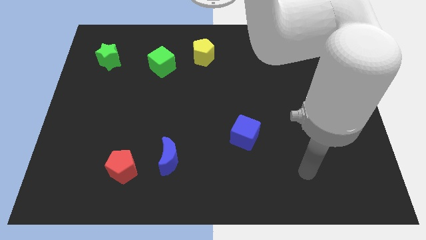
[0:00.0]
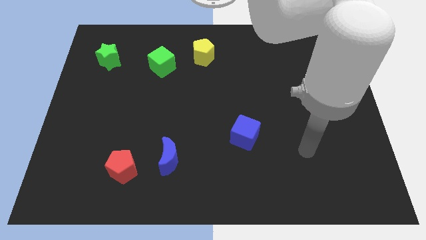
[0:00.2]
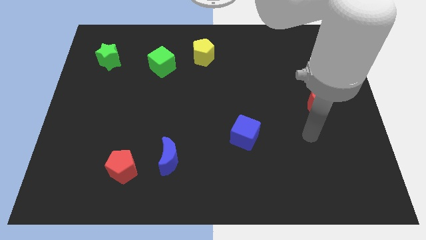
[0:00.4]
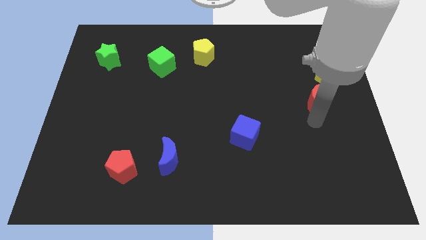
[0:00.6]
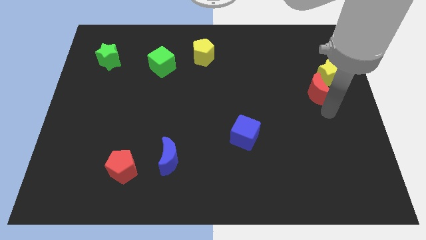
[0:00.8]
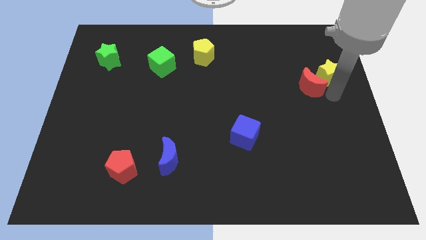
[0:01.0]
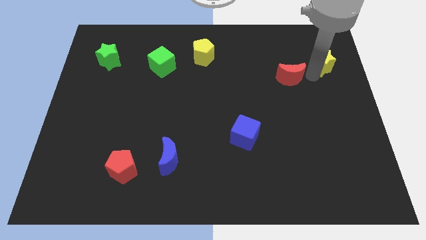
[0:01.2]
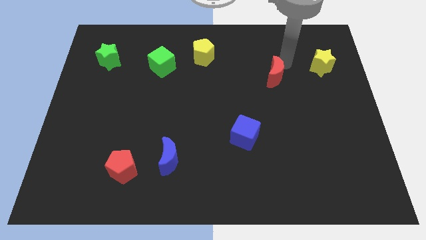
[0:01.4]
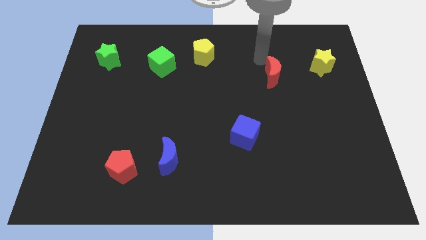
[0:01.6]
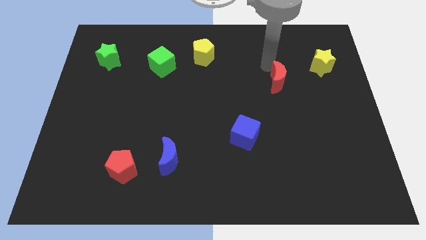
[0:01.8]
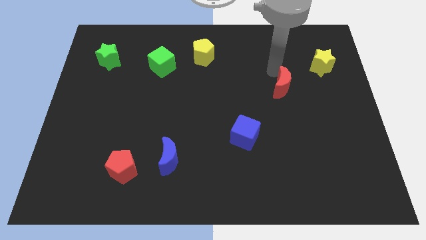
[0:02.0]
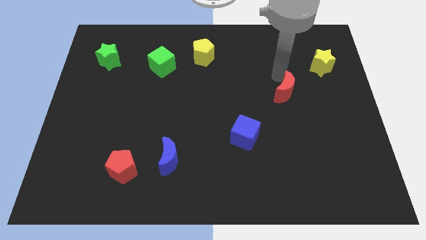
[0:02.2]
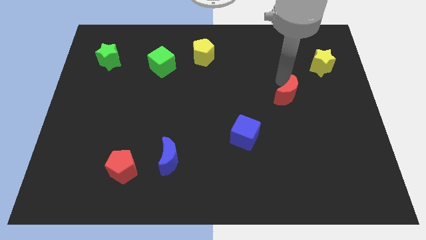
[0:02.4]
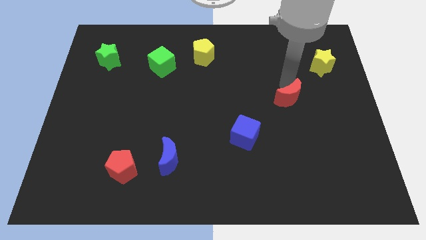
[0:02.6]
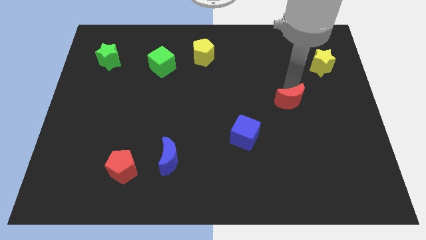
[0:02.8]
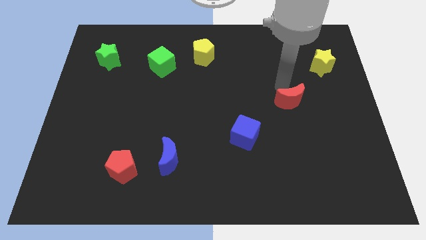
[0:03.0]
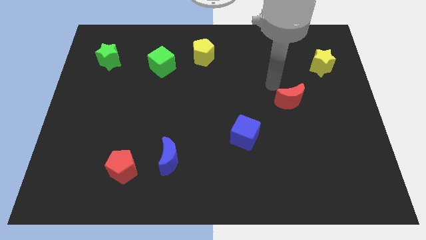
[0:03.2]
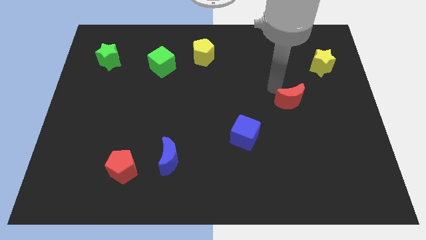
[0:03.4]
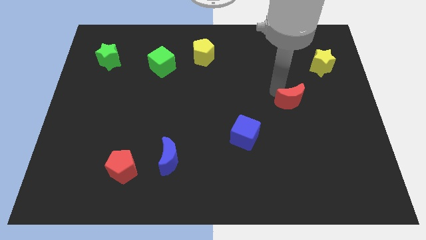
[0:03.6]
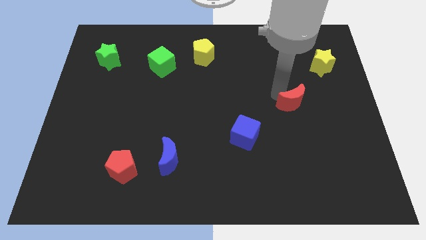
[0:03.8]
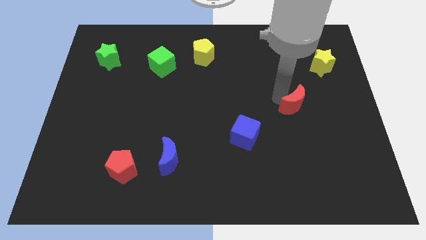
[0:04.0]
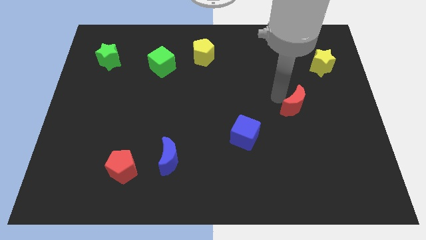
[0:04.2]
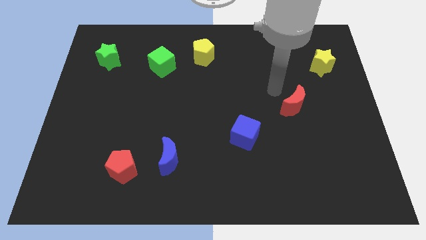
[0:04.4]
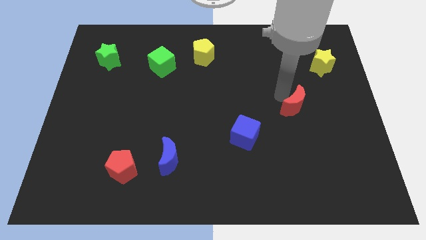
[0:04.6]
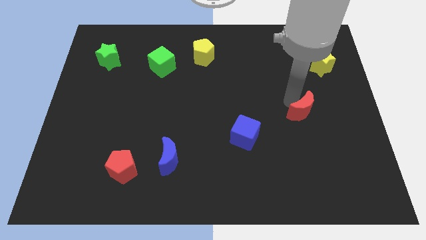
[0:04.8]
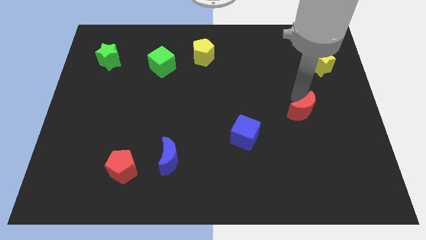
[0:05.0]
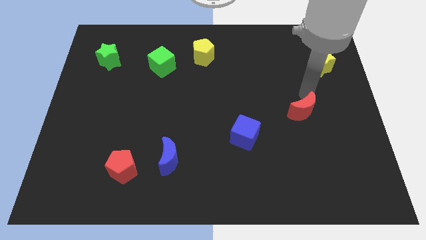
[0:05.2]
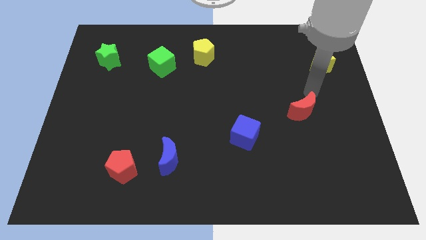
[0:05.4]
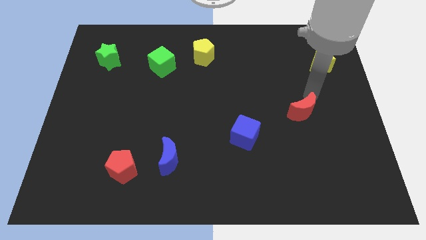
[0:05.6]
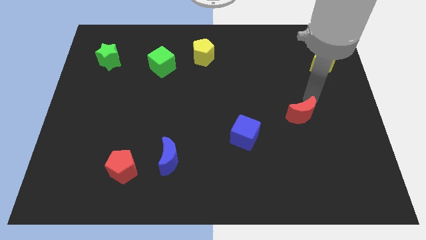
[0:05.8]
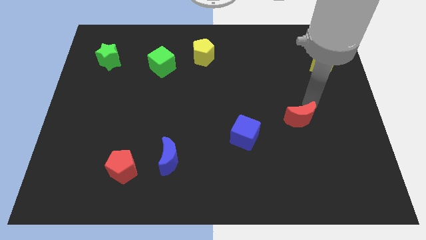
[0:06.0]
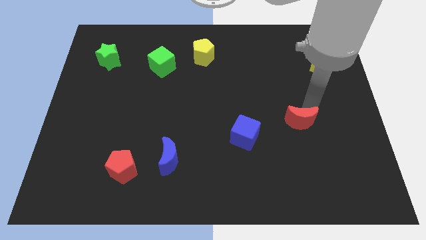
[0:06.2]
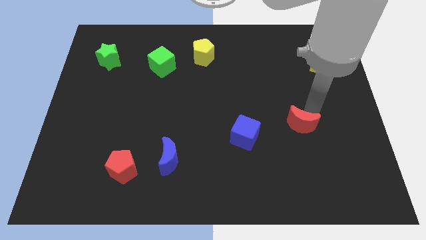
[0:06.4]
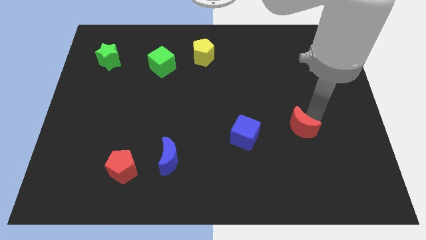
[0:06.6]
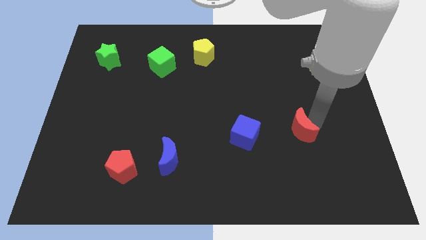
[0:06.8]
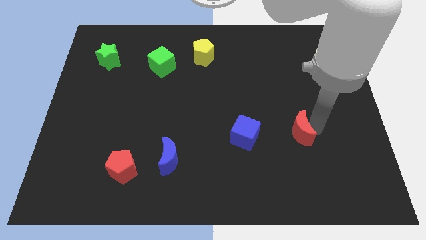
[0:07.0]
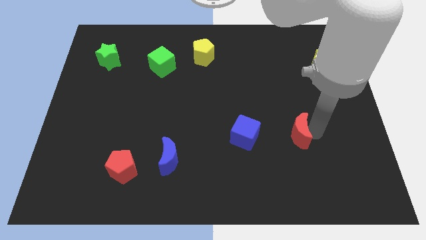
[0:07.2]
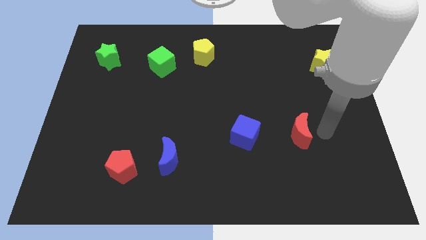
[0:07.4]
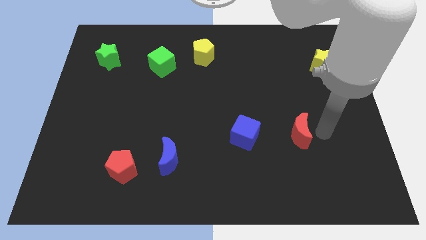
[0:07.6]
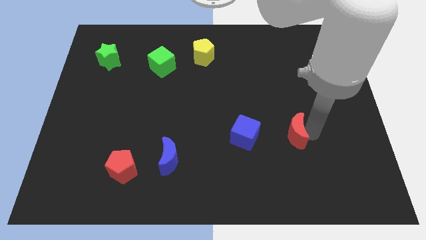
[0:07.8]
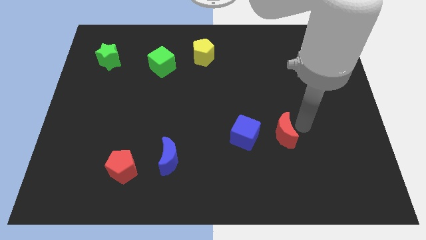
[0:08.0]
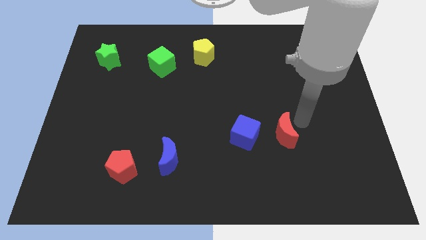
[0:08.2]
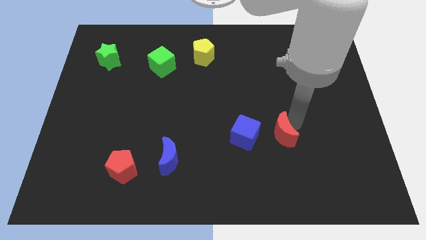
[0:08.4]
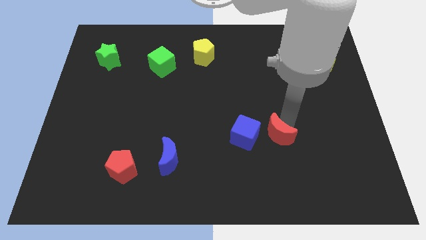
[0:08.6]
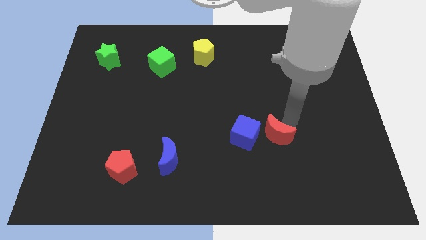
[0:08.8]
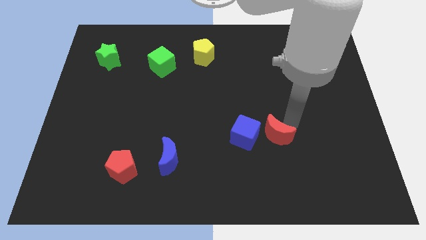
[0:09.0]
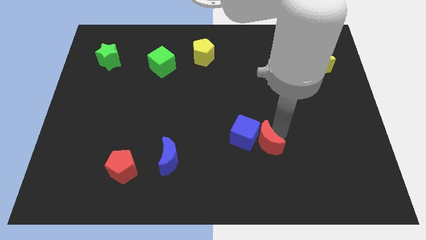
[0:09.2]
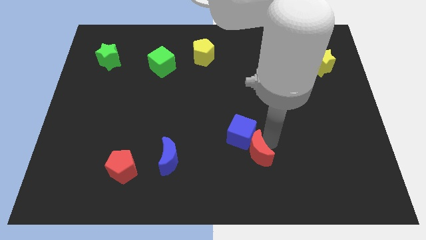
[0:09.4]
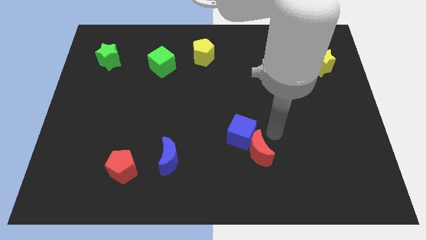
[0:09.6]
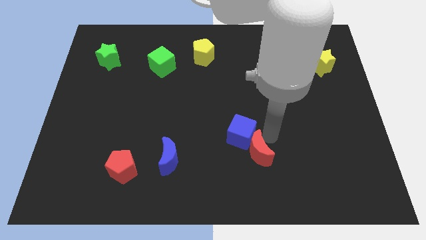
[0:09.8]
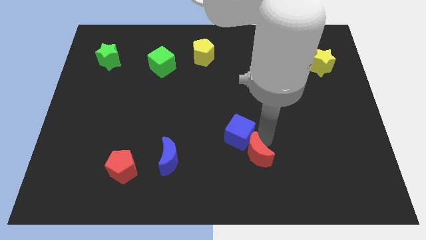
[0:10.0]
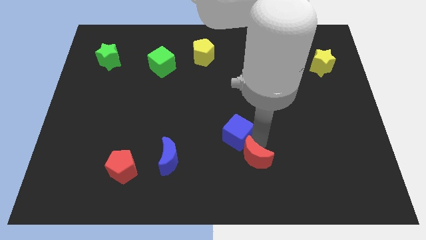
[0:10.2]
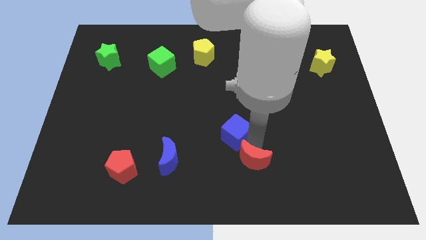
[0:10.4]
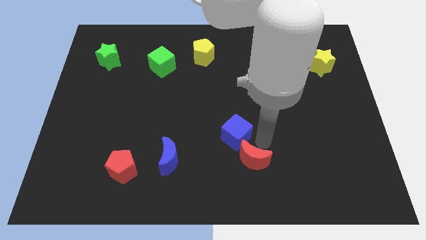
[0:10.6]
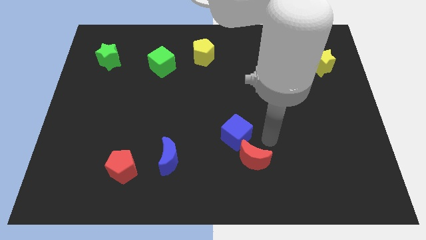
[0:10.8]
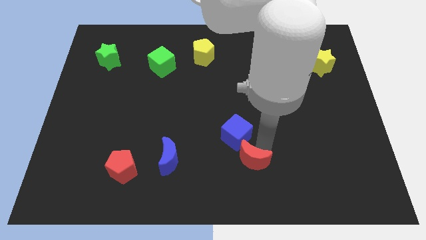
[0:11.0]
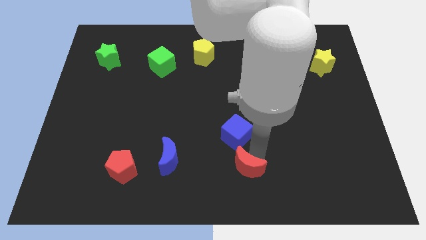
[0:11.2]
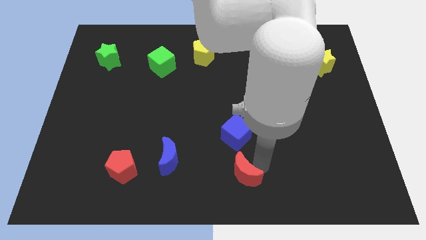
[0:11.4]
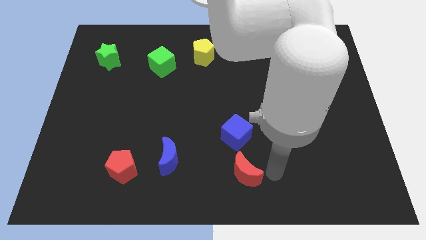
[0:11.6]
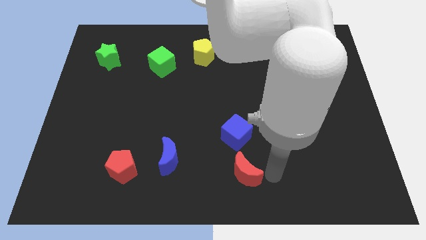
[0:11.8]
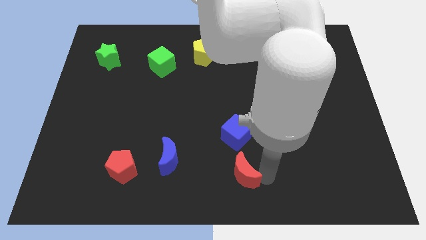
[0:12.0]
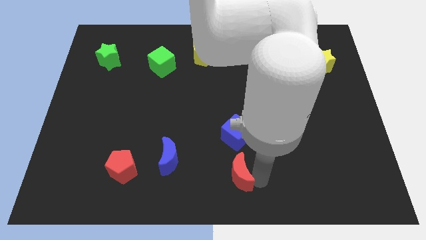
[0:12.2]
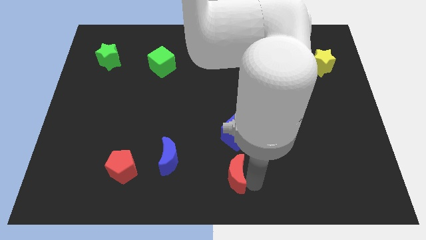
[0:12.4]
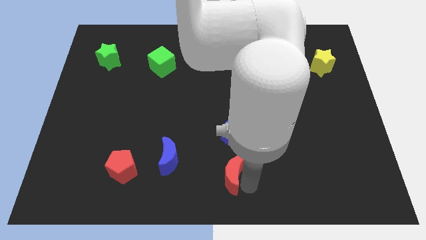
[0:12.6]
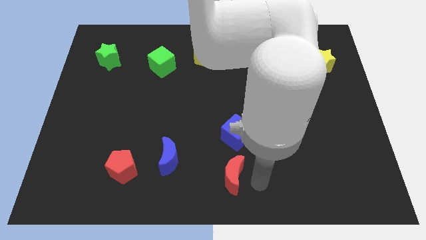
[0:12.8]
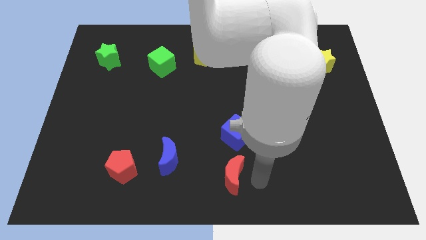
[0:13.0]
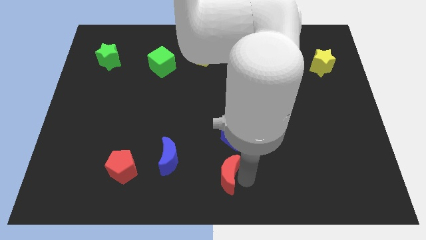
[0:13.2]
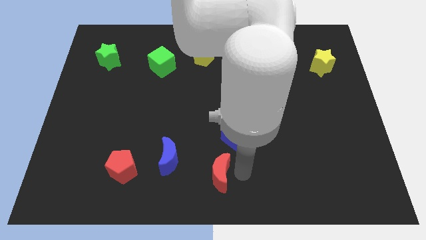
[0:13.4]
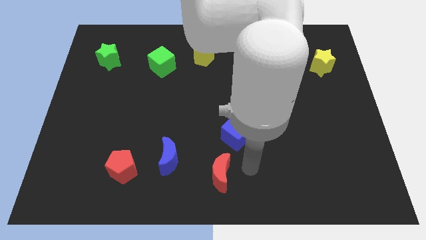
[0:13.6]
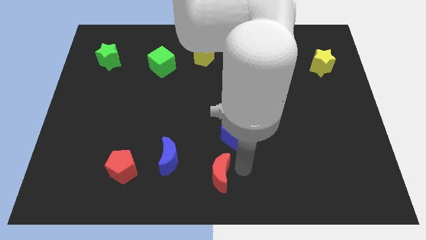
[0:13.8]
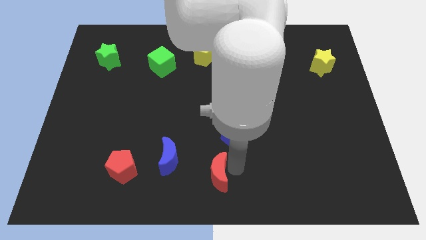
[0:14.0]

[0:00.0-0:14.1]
put the red moon to the bottom right of the blue moon
